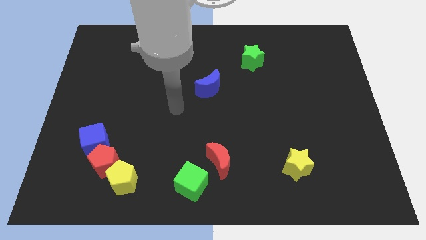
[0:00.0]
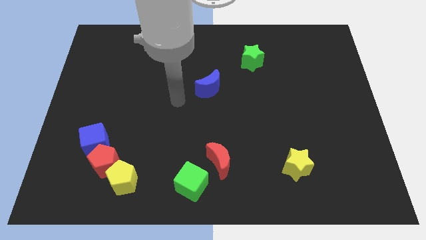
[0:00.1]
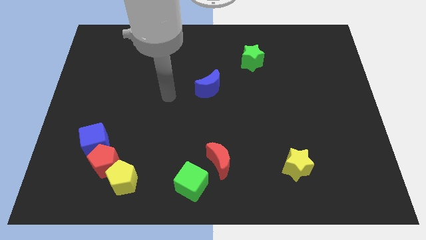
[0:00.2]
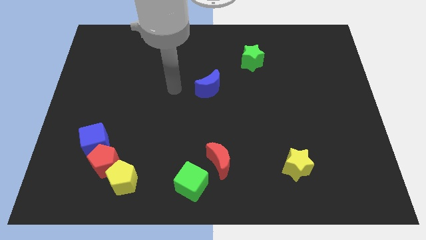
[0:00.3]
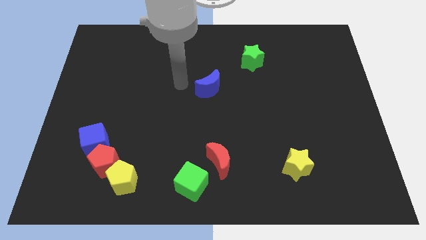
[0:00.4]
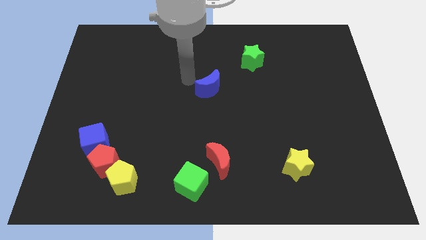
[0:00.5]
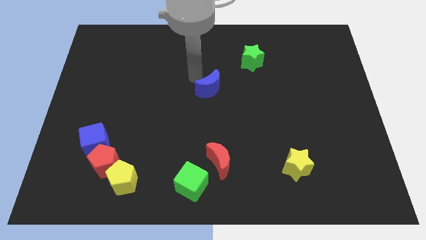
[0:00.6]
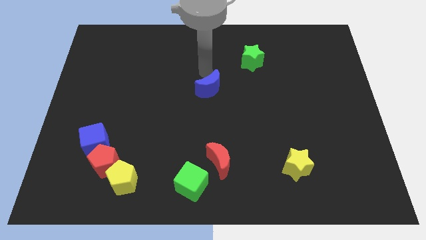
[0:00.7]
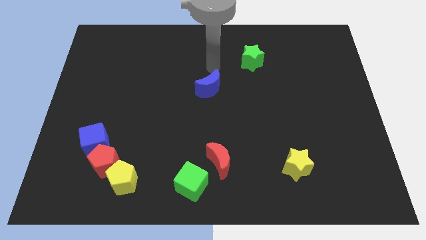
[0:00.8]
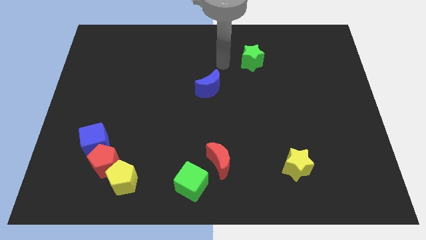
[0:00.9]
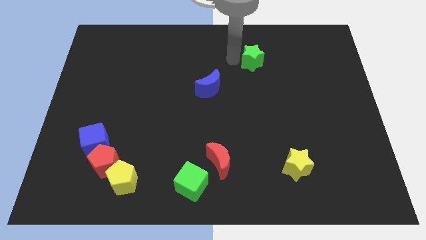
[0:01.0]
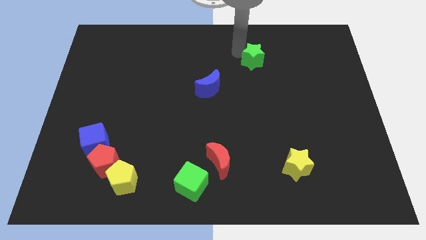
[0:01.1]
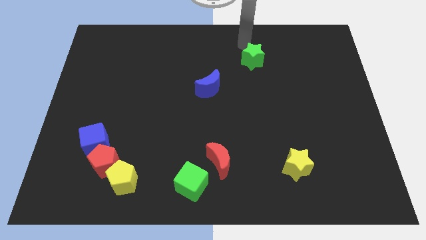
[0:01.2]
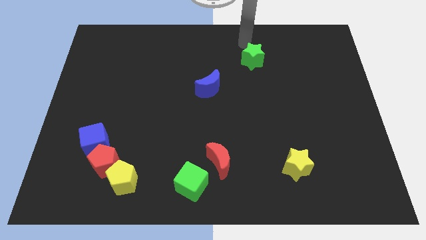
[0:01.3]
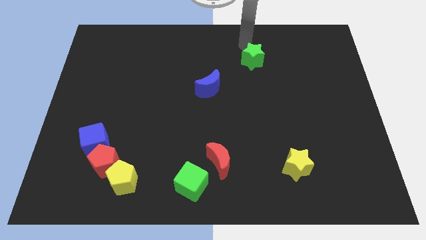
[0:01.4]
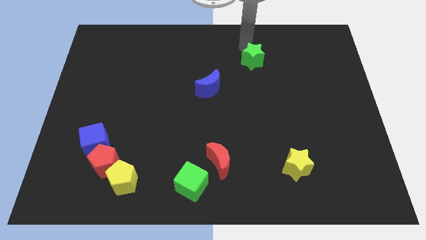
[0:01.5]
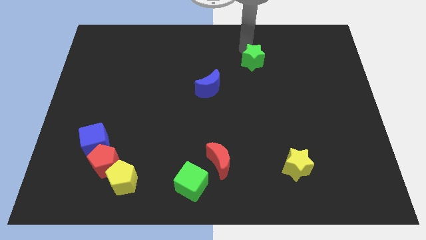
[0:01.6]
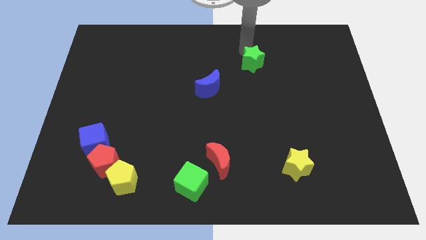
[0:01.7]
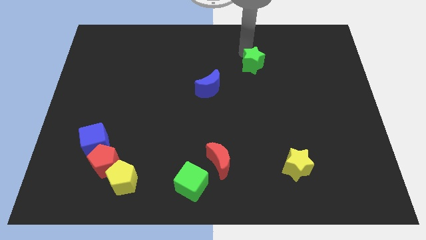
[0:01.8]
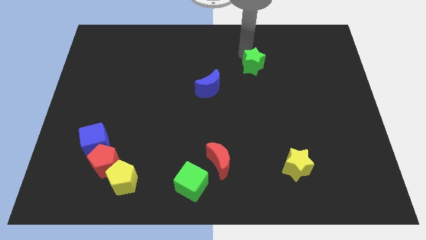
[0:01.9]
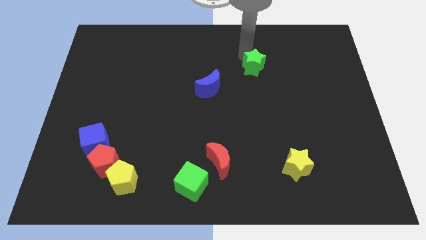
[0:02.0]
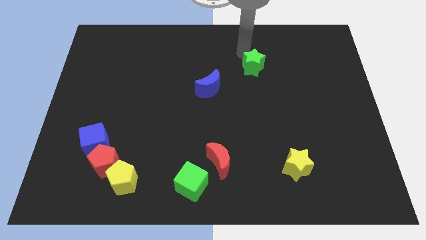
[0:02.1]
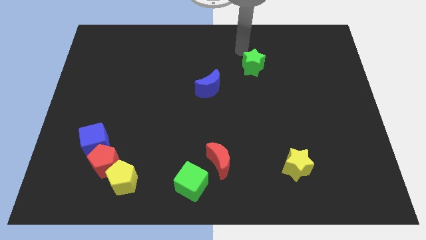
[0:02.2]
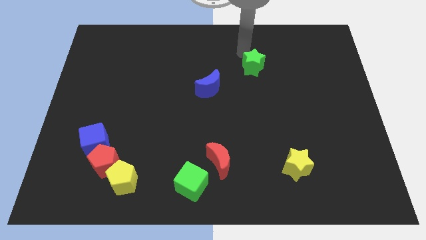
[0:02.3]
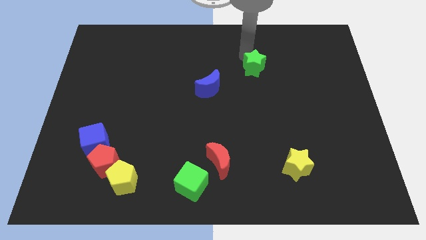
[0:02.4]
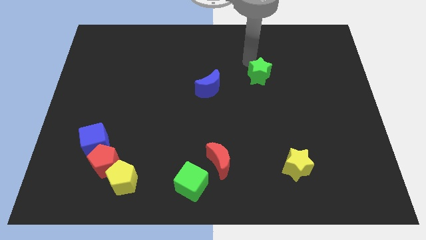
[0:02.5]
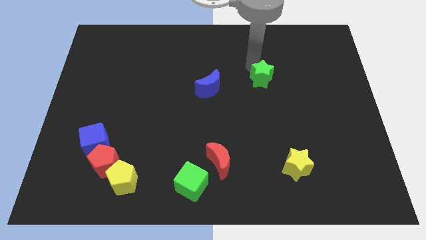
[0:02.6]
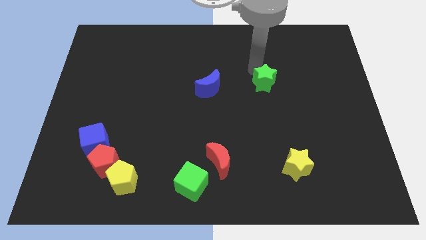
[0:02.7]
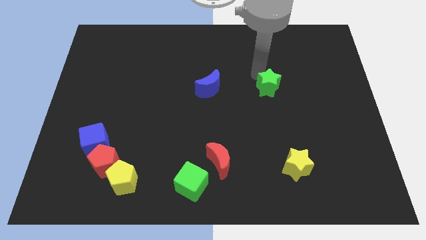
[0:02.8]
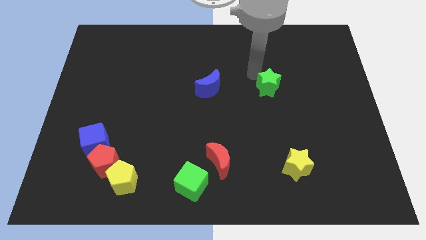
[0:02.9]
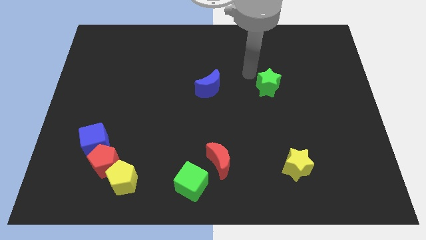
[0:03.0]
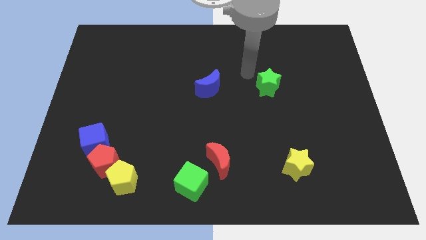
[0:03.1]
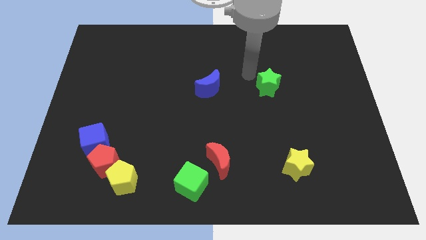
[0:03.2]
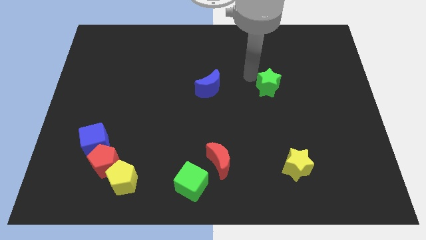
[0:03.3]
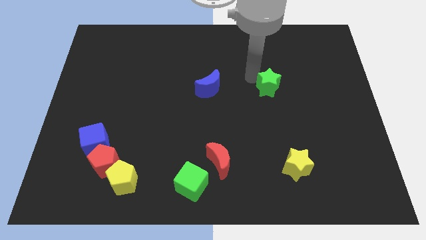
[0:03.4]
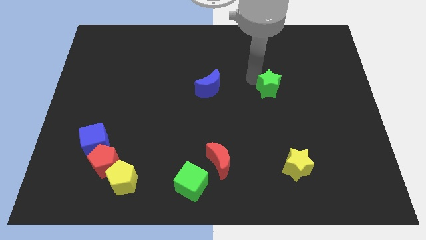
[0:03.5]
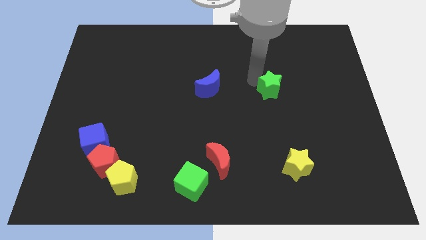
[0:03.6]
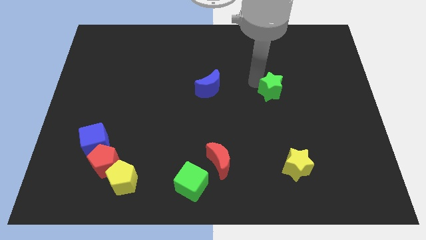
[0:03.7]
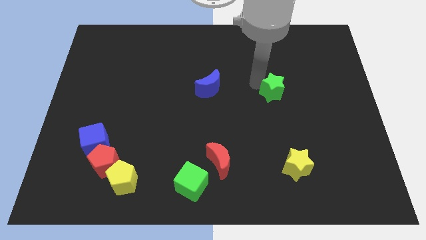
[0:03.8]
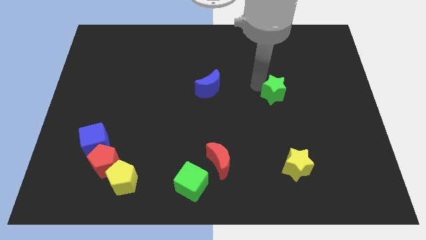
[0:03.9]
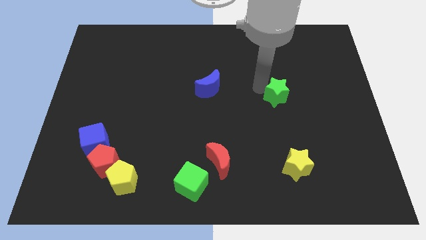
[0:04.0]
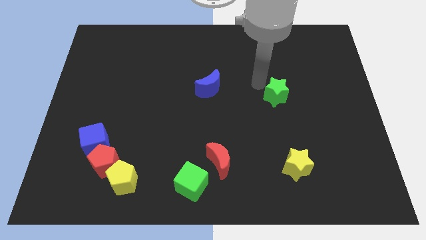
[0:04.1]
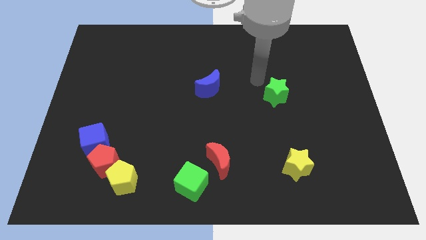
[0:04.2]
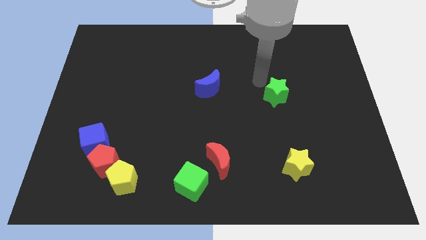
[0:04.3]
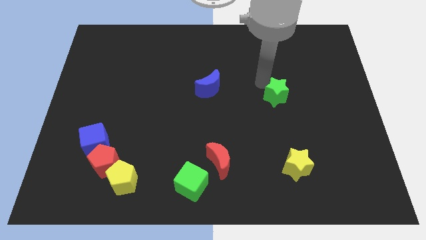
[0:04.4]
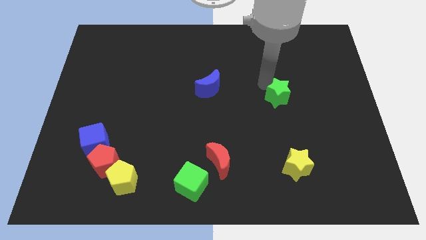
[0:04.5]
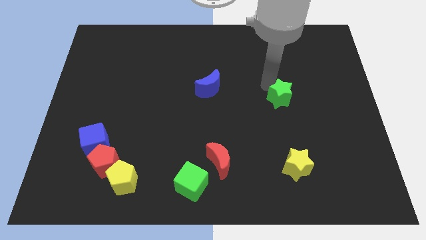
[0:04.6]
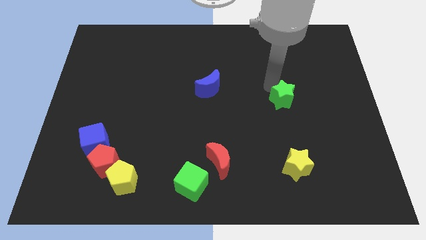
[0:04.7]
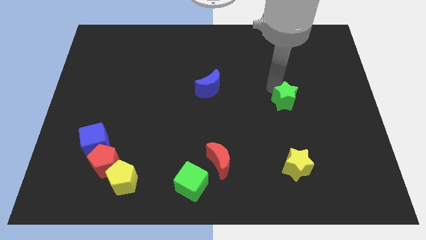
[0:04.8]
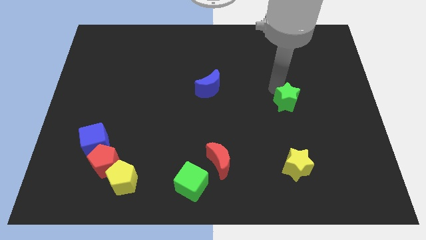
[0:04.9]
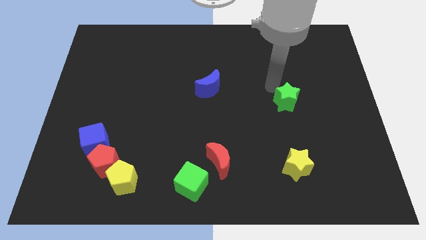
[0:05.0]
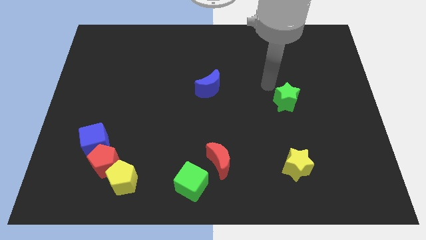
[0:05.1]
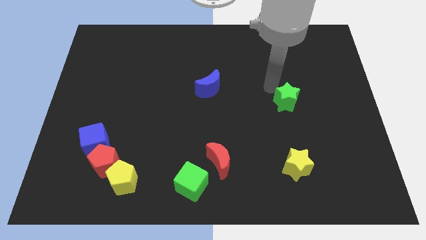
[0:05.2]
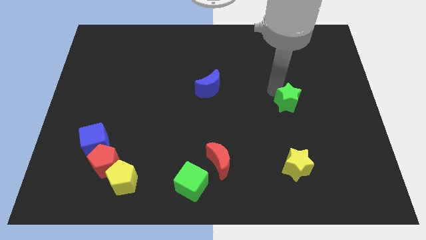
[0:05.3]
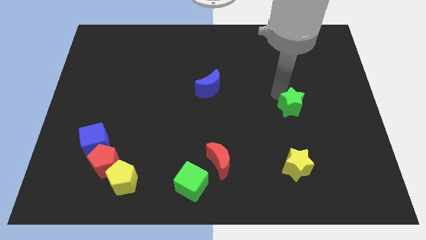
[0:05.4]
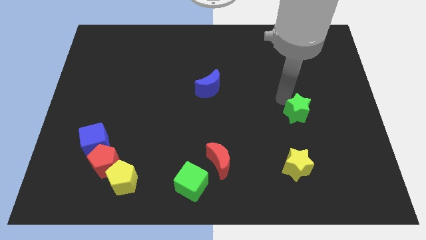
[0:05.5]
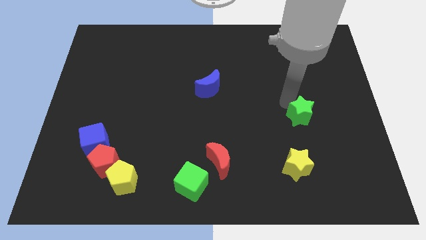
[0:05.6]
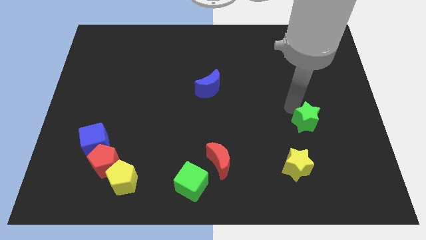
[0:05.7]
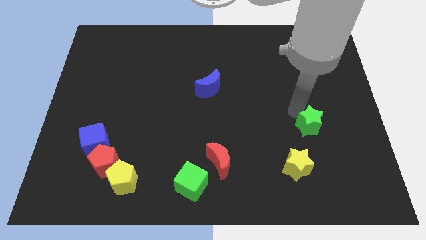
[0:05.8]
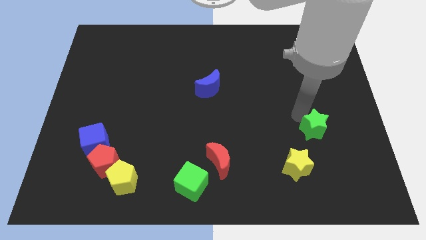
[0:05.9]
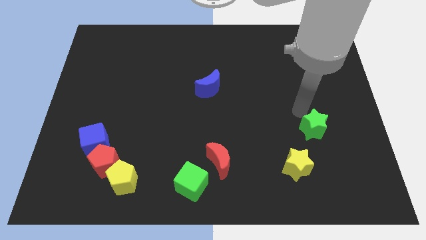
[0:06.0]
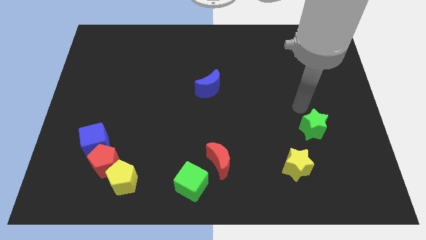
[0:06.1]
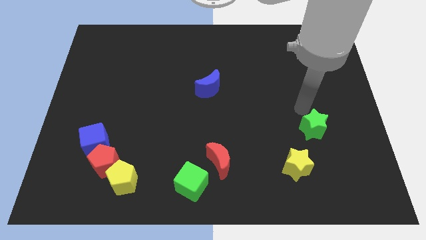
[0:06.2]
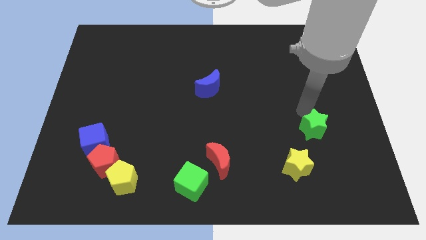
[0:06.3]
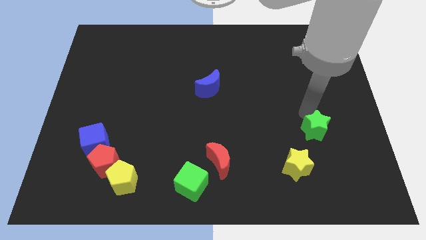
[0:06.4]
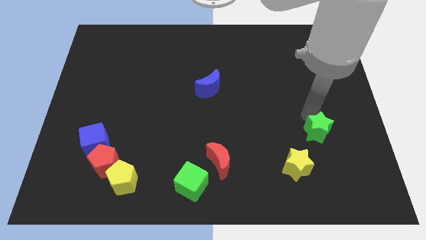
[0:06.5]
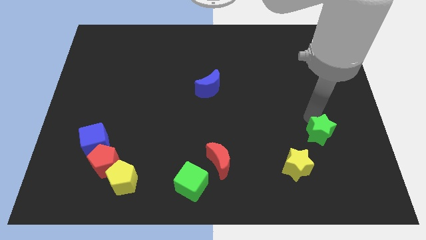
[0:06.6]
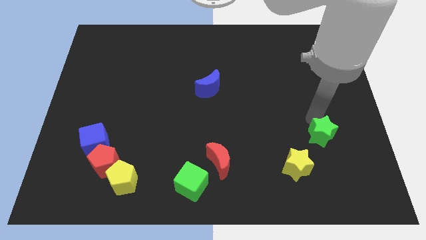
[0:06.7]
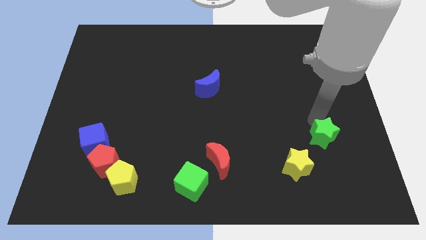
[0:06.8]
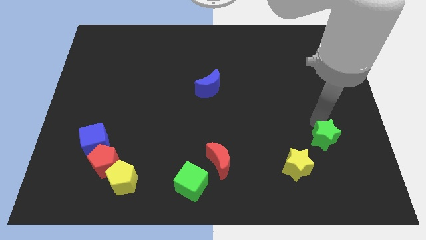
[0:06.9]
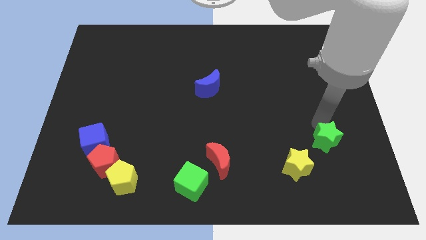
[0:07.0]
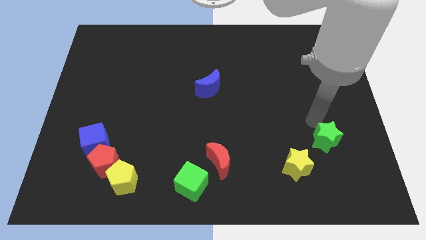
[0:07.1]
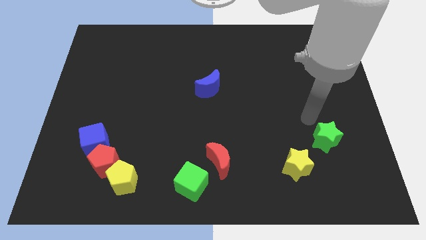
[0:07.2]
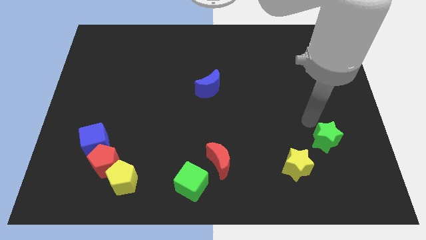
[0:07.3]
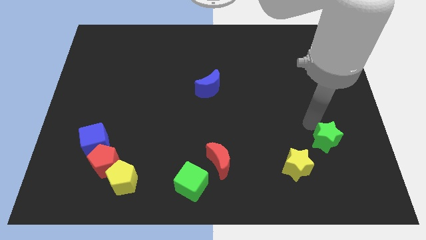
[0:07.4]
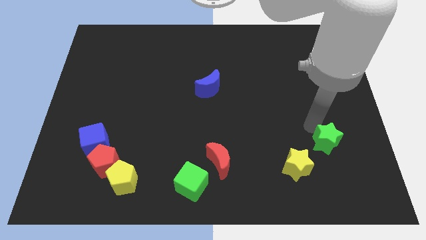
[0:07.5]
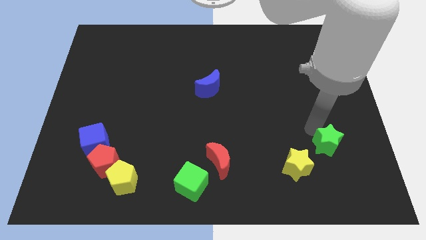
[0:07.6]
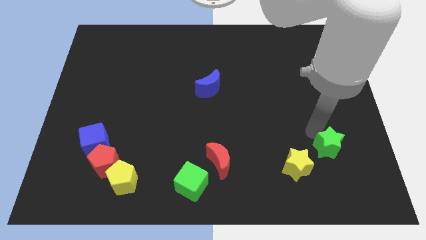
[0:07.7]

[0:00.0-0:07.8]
move the green star right of the yellow star
